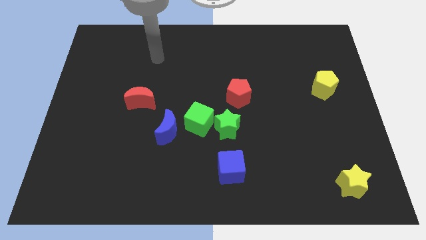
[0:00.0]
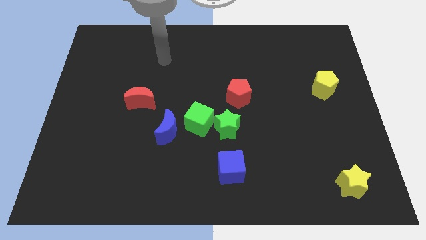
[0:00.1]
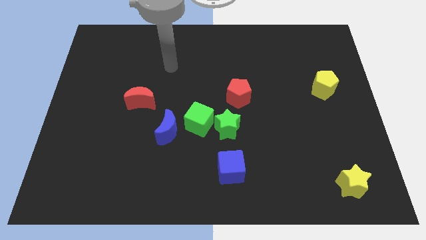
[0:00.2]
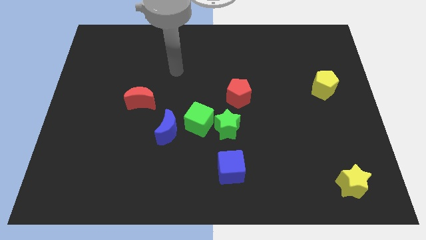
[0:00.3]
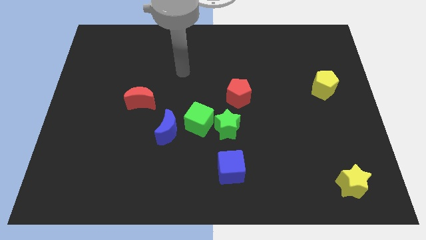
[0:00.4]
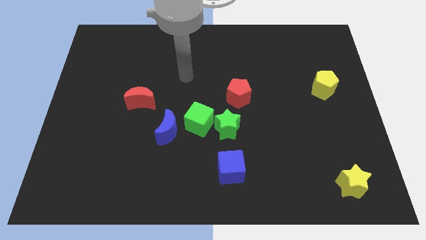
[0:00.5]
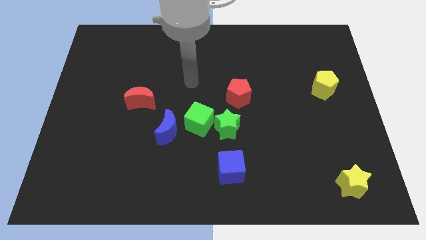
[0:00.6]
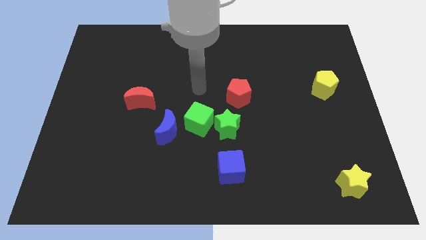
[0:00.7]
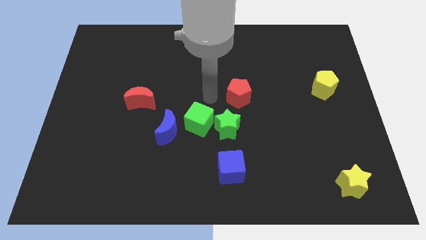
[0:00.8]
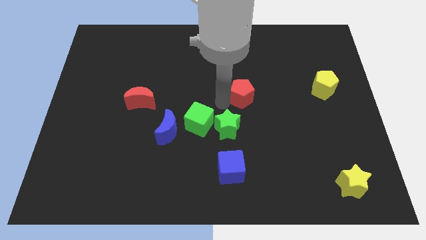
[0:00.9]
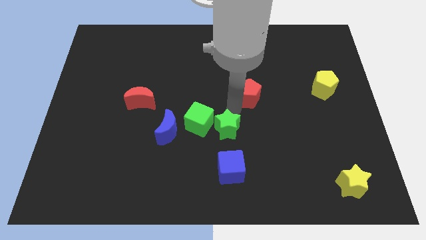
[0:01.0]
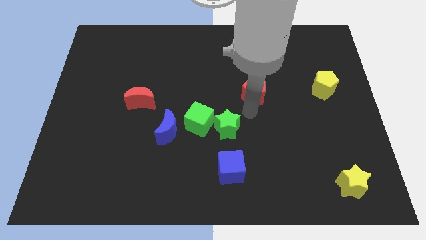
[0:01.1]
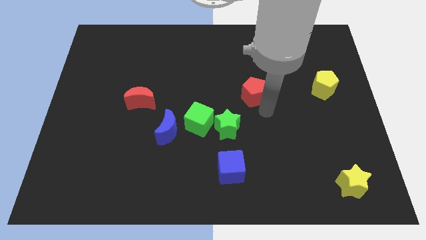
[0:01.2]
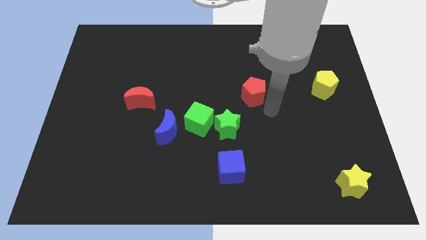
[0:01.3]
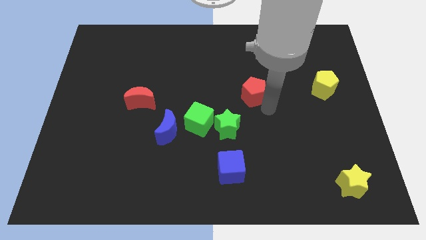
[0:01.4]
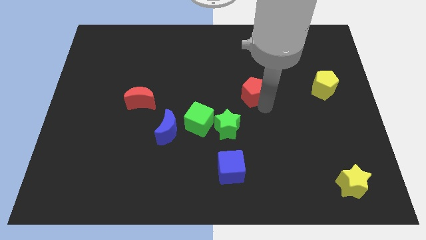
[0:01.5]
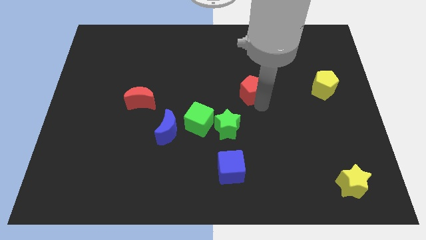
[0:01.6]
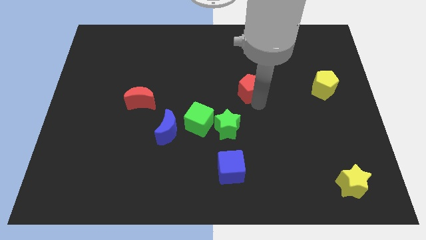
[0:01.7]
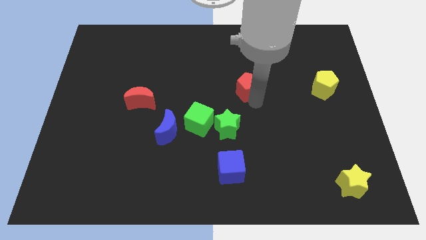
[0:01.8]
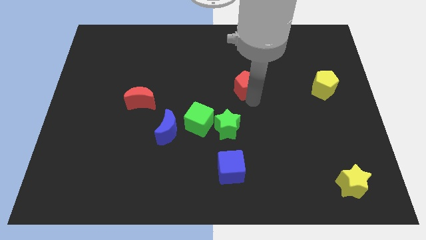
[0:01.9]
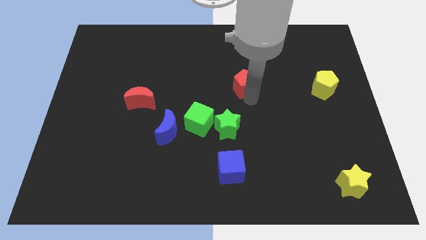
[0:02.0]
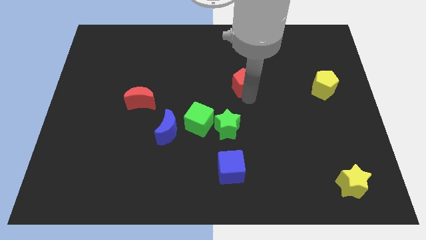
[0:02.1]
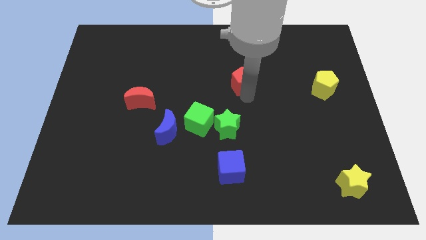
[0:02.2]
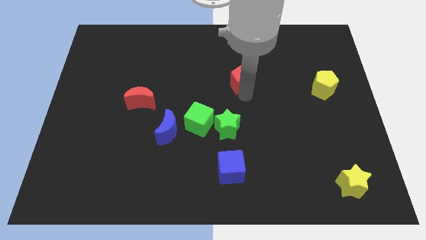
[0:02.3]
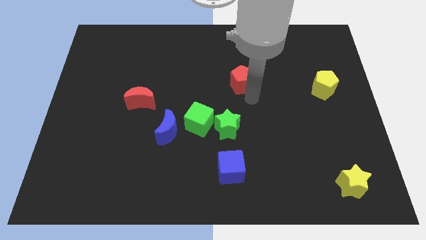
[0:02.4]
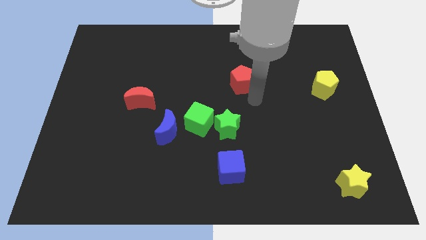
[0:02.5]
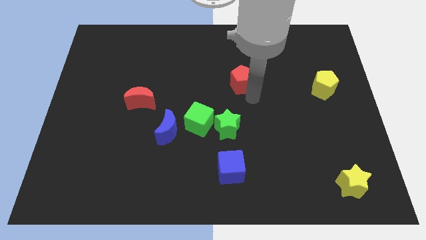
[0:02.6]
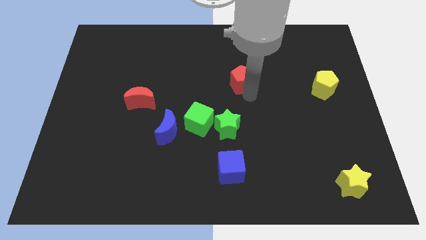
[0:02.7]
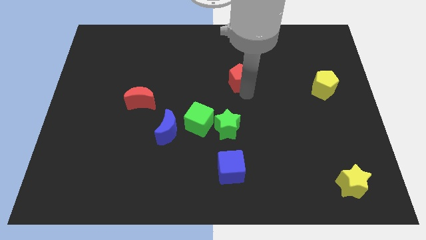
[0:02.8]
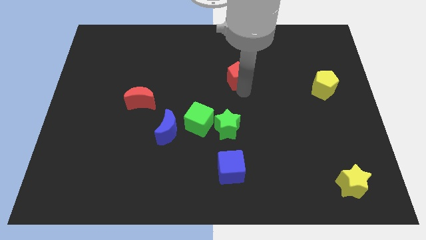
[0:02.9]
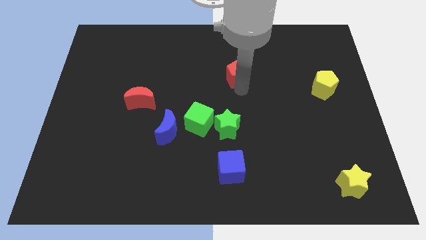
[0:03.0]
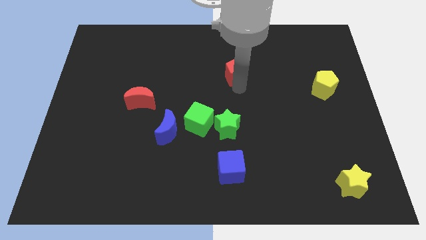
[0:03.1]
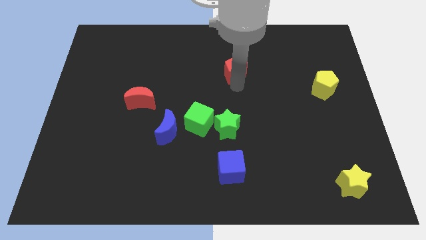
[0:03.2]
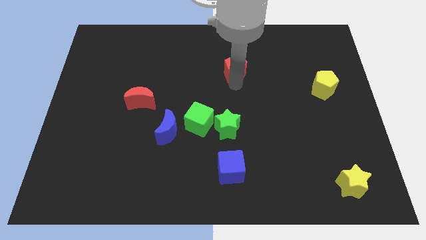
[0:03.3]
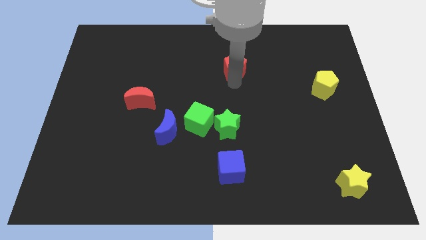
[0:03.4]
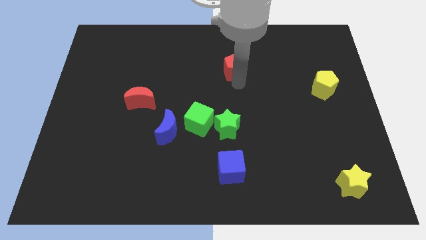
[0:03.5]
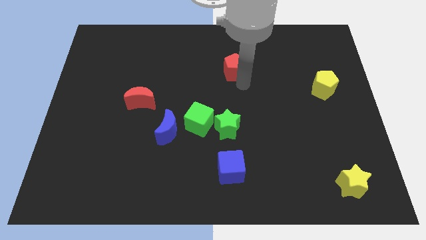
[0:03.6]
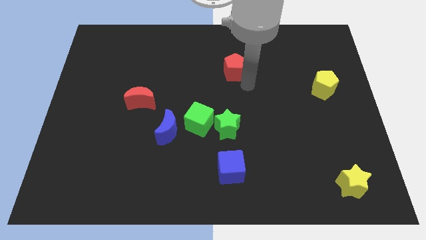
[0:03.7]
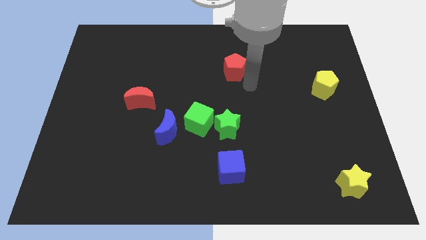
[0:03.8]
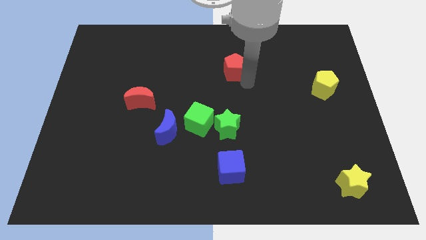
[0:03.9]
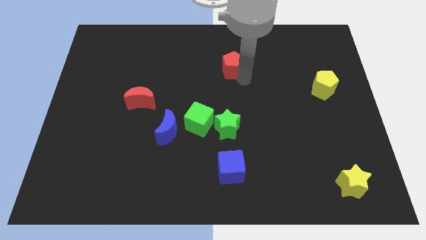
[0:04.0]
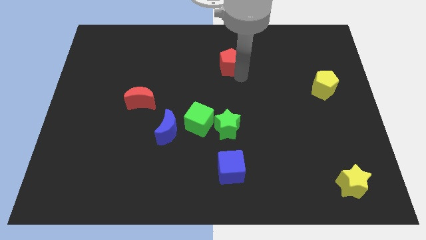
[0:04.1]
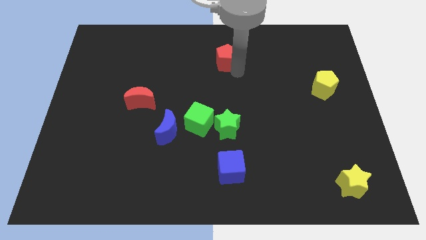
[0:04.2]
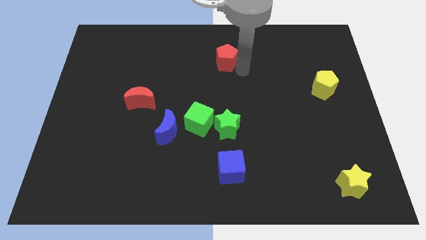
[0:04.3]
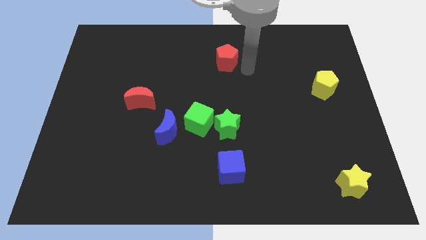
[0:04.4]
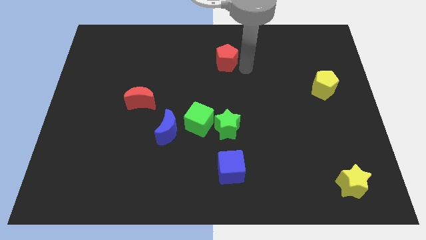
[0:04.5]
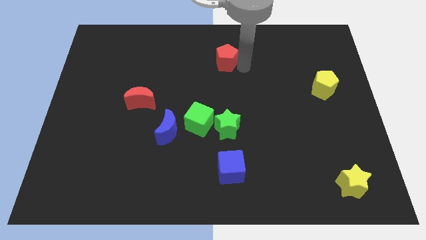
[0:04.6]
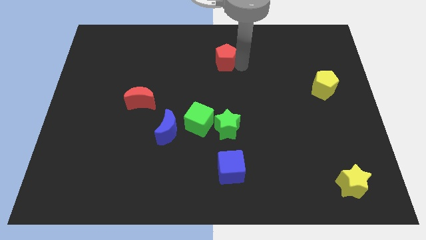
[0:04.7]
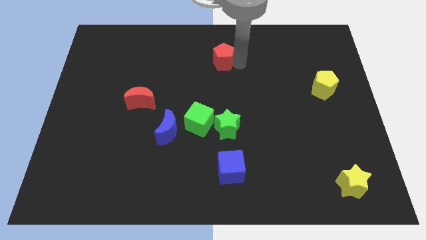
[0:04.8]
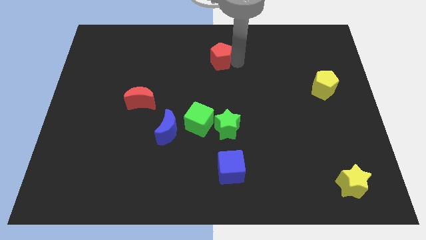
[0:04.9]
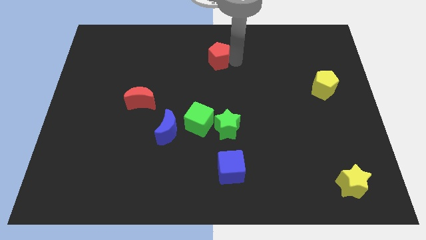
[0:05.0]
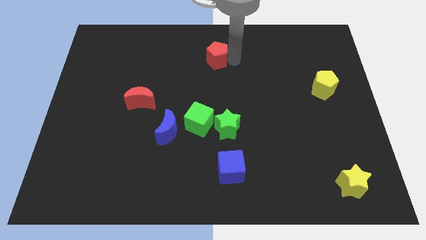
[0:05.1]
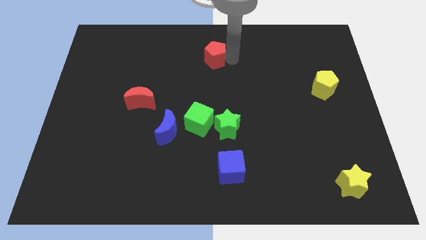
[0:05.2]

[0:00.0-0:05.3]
put the red pentagon to the top

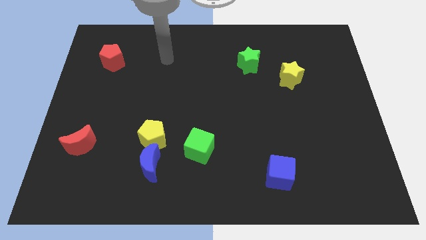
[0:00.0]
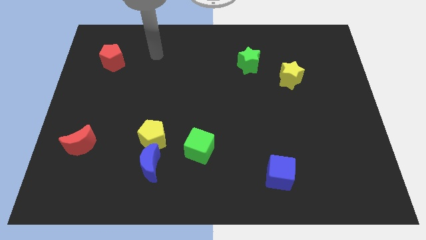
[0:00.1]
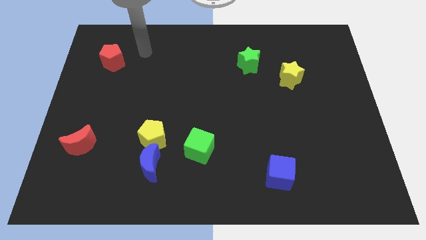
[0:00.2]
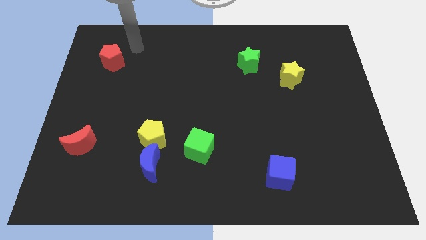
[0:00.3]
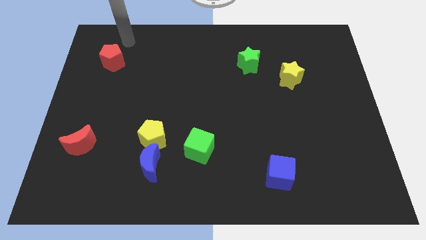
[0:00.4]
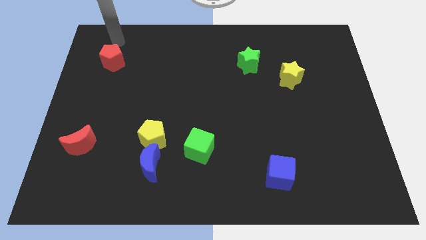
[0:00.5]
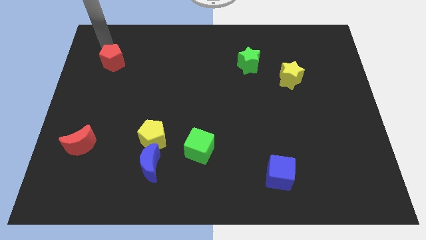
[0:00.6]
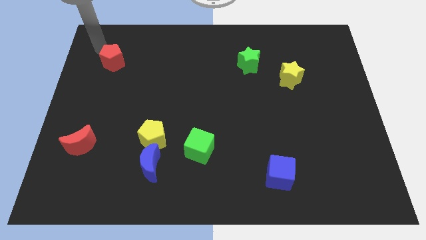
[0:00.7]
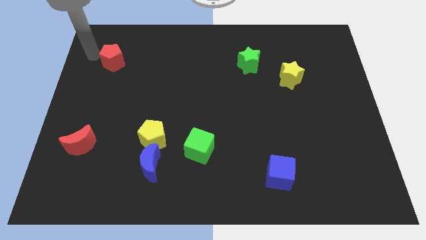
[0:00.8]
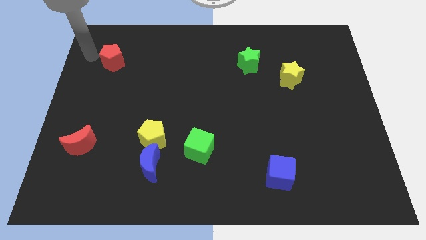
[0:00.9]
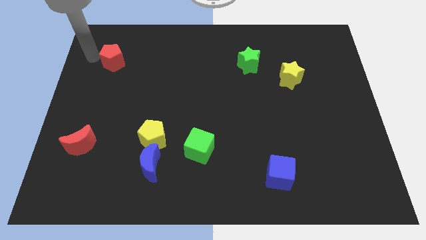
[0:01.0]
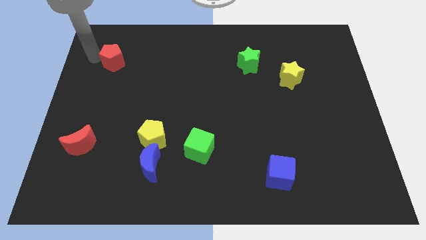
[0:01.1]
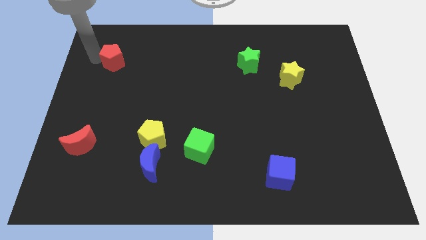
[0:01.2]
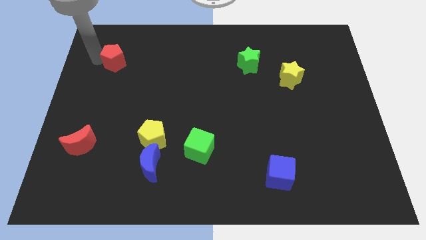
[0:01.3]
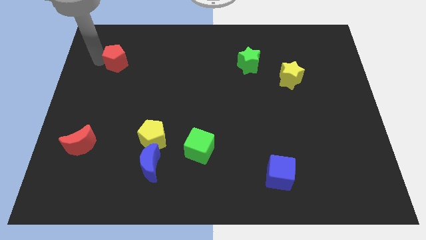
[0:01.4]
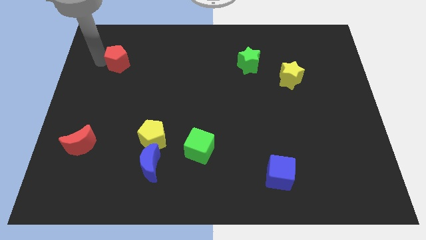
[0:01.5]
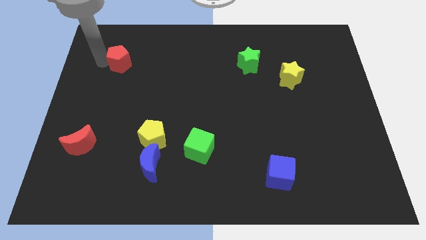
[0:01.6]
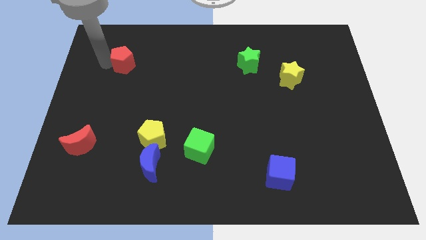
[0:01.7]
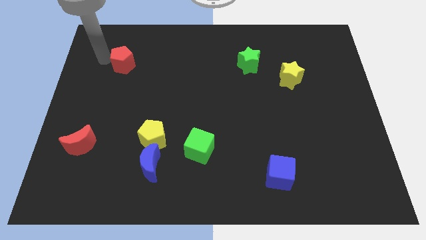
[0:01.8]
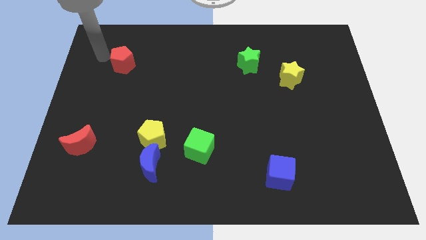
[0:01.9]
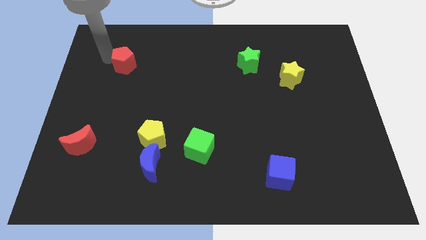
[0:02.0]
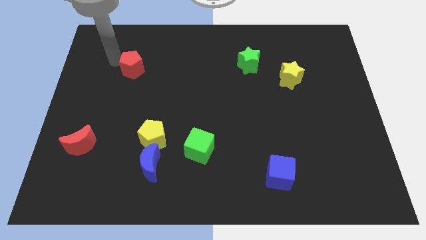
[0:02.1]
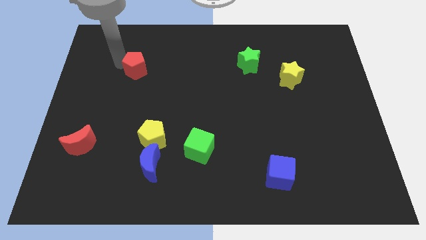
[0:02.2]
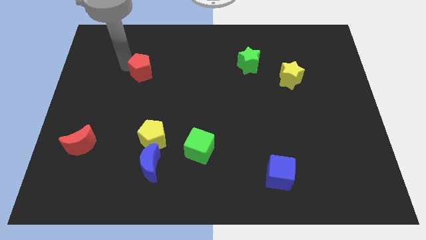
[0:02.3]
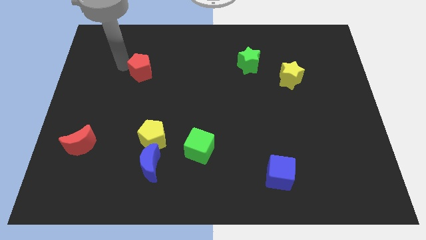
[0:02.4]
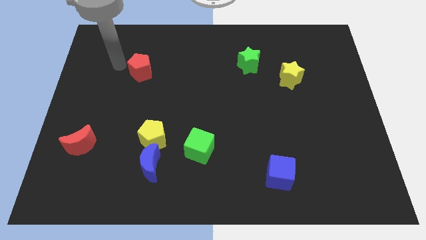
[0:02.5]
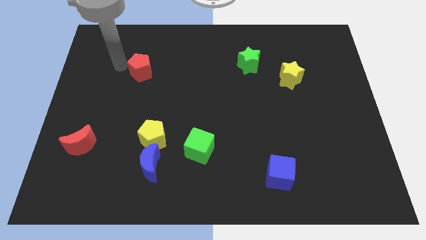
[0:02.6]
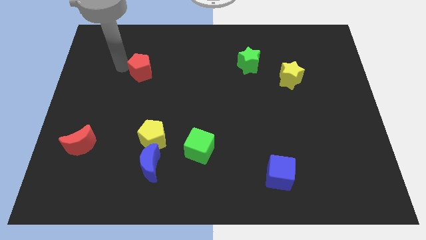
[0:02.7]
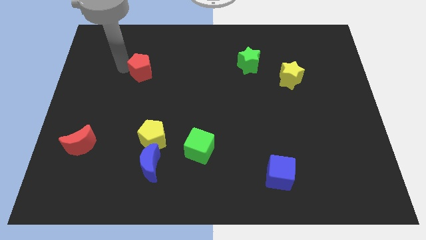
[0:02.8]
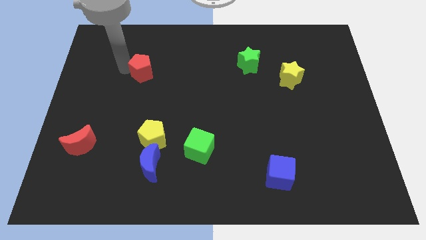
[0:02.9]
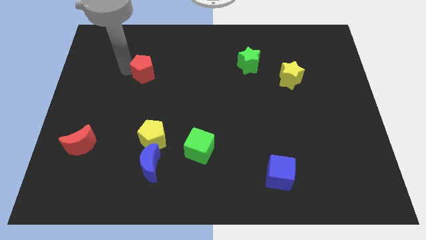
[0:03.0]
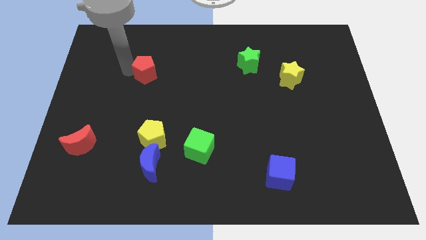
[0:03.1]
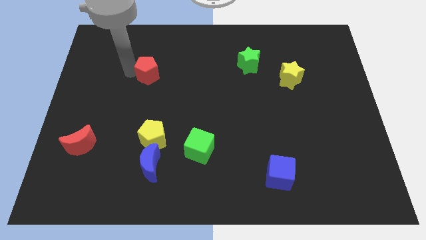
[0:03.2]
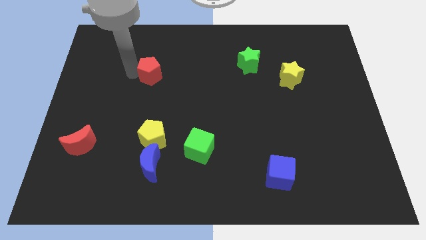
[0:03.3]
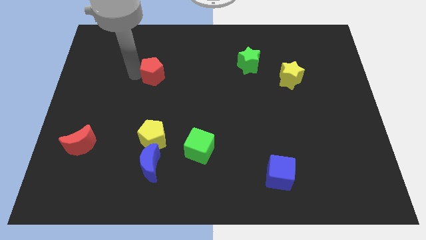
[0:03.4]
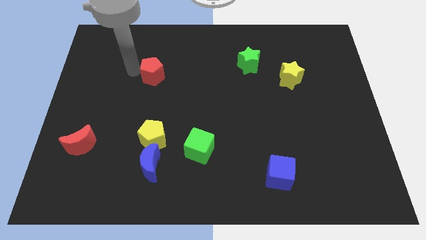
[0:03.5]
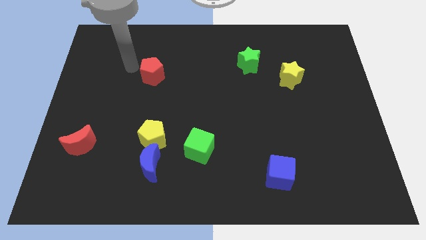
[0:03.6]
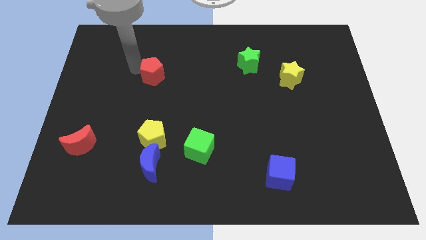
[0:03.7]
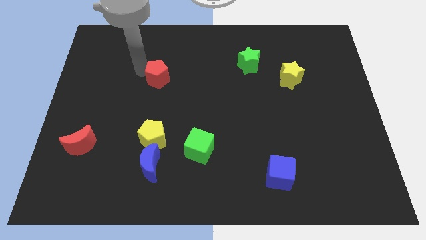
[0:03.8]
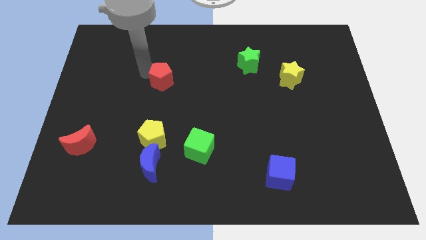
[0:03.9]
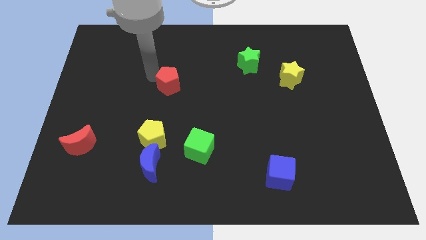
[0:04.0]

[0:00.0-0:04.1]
move the red pentagon to the middle
